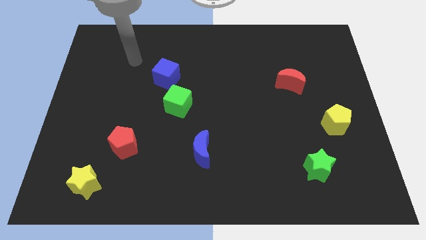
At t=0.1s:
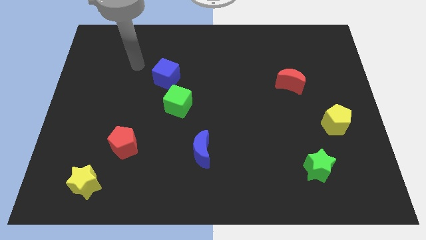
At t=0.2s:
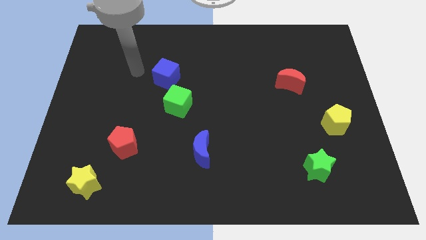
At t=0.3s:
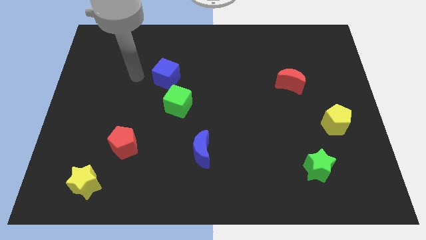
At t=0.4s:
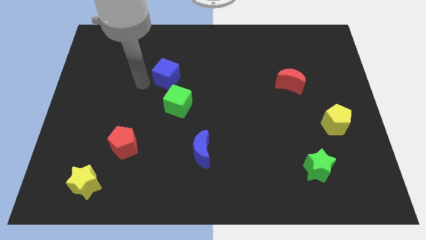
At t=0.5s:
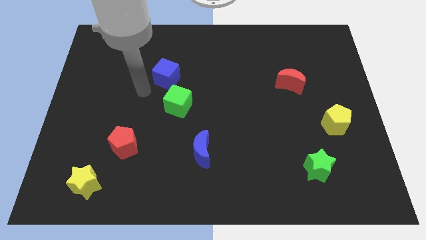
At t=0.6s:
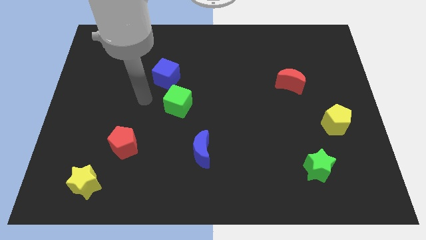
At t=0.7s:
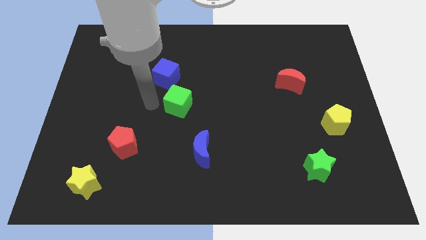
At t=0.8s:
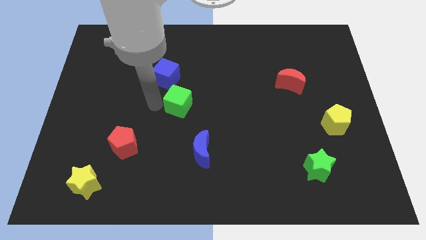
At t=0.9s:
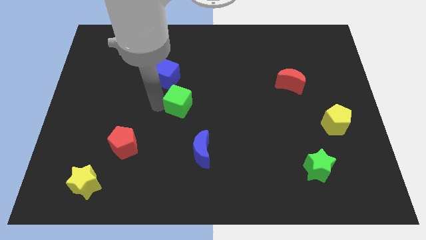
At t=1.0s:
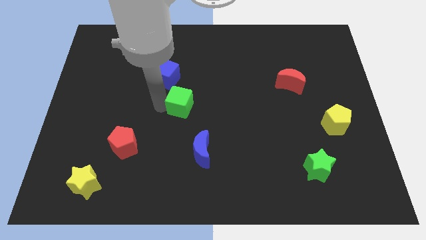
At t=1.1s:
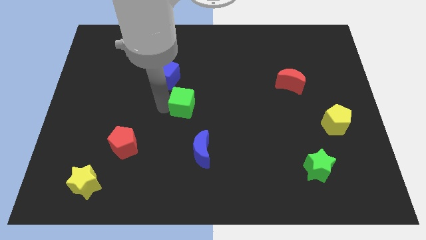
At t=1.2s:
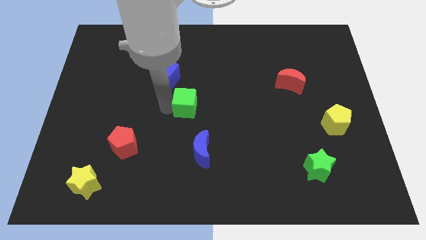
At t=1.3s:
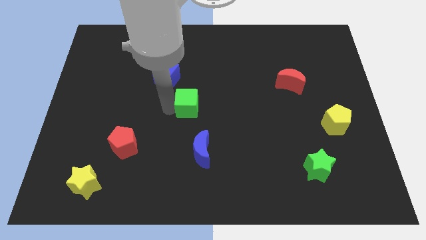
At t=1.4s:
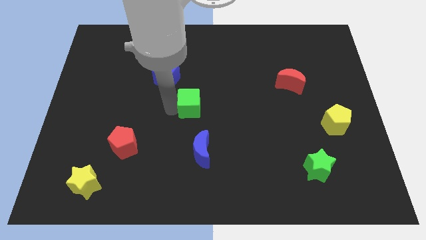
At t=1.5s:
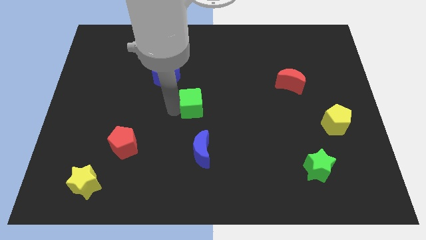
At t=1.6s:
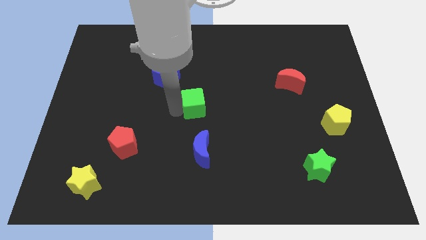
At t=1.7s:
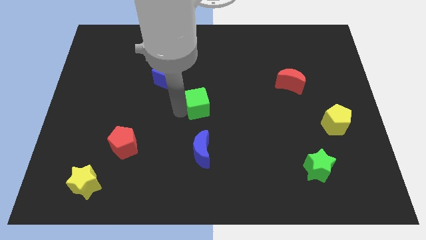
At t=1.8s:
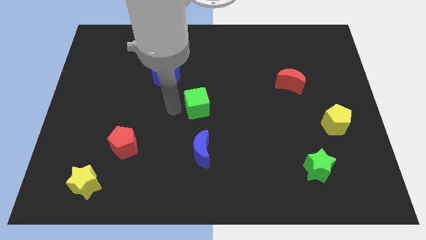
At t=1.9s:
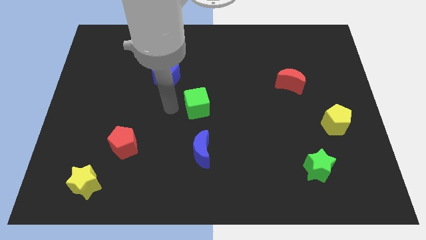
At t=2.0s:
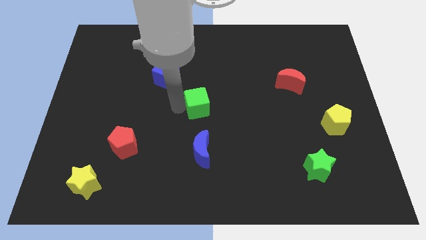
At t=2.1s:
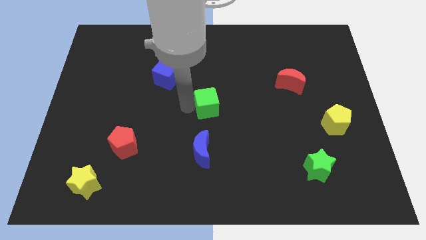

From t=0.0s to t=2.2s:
slide the green cube slightly right

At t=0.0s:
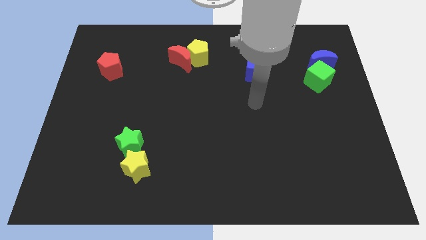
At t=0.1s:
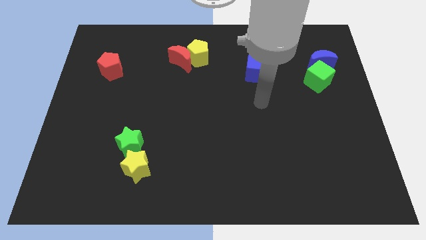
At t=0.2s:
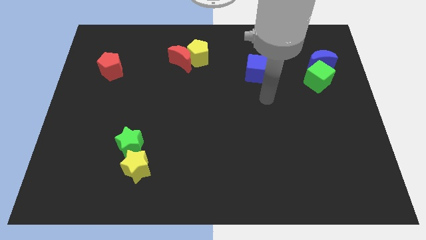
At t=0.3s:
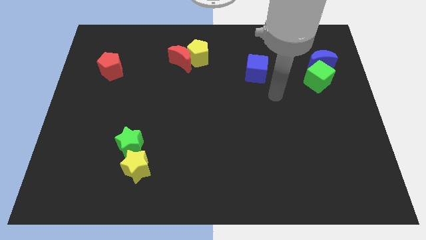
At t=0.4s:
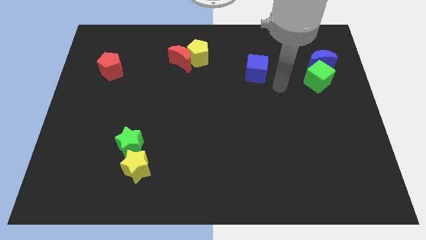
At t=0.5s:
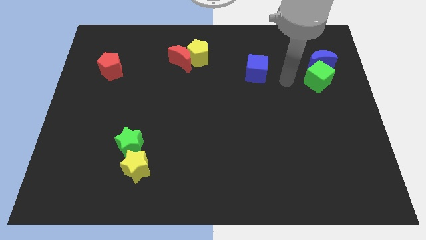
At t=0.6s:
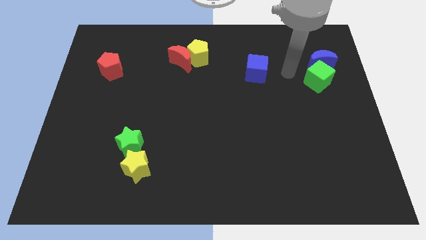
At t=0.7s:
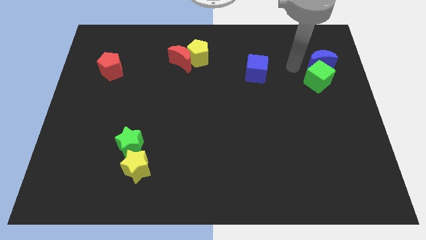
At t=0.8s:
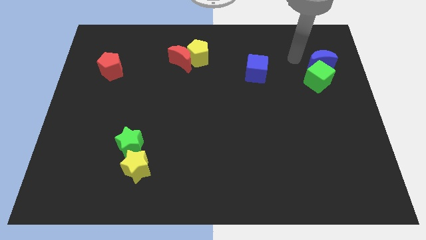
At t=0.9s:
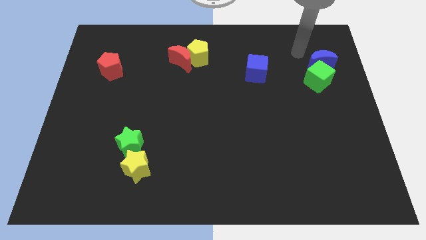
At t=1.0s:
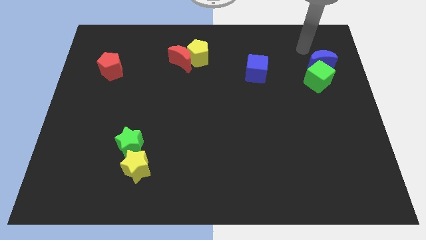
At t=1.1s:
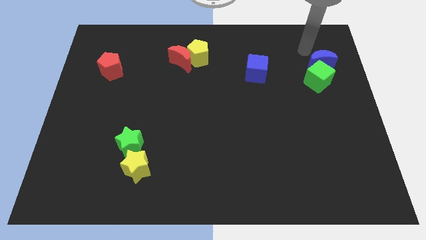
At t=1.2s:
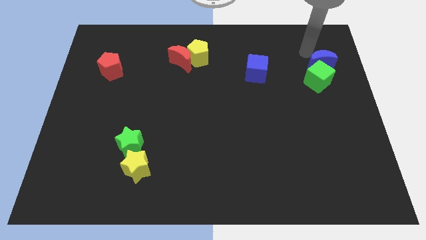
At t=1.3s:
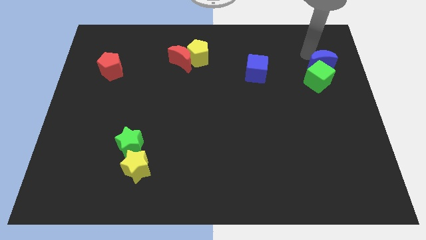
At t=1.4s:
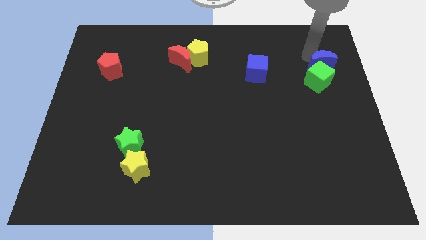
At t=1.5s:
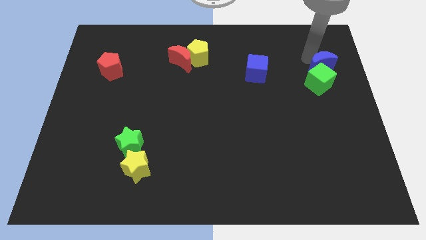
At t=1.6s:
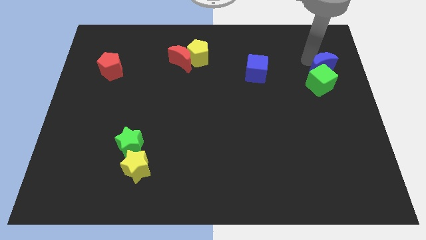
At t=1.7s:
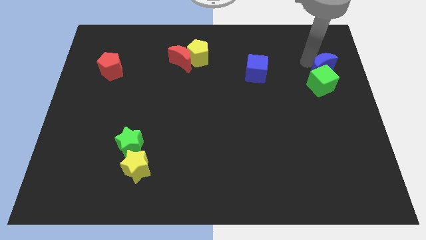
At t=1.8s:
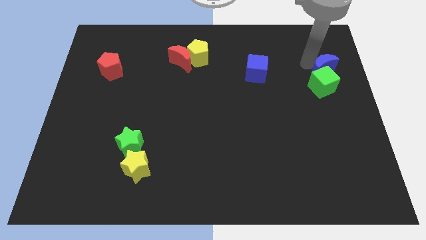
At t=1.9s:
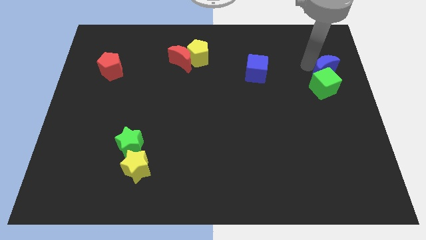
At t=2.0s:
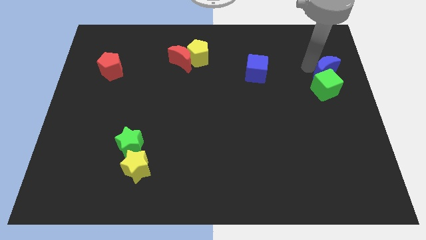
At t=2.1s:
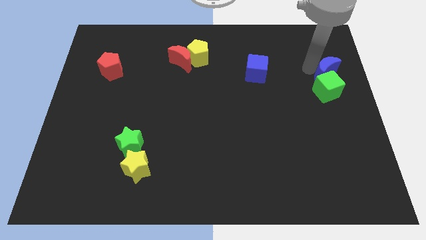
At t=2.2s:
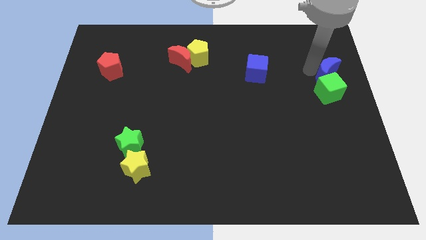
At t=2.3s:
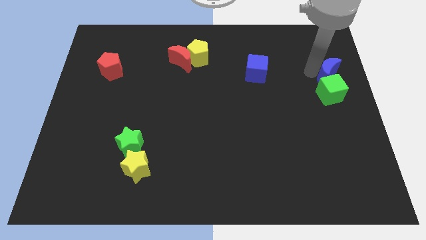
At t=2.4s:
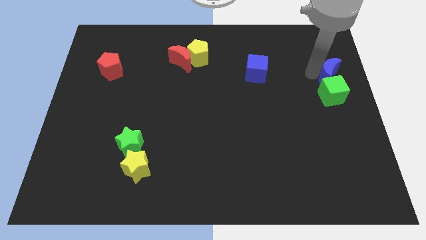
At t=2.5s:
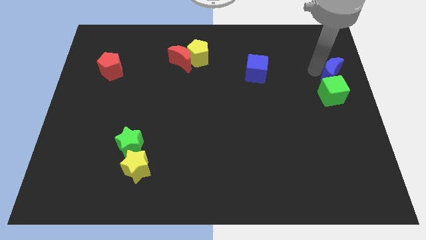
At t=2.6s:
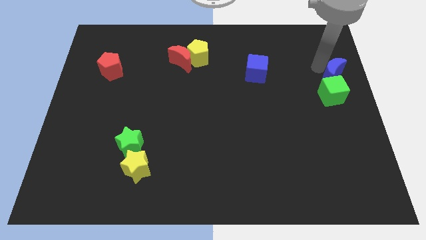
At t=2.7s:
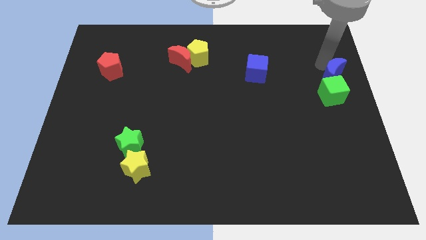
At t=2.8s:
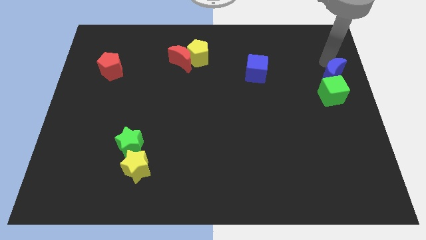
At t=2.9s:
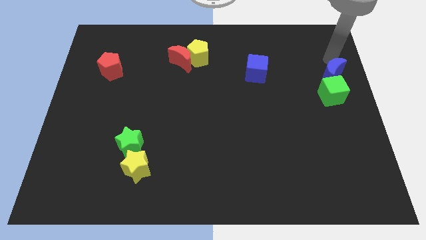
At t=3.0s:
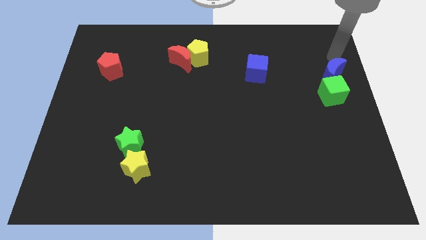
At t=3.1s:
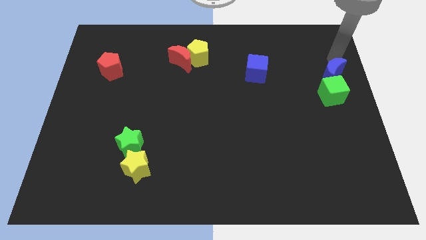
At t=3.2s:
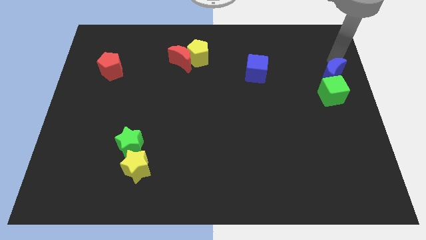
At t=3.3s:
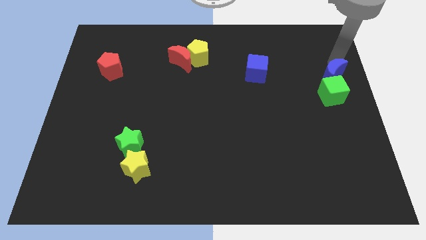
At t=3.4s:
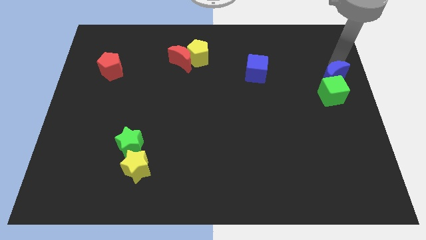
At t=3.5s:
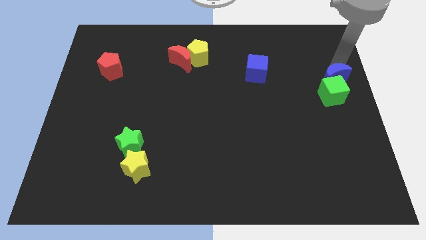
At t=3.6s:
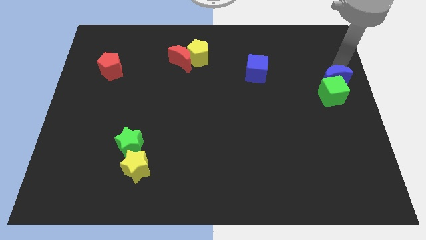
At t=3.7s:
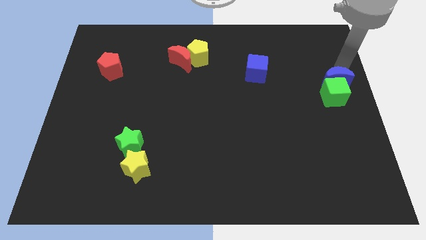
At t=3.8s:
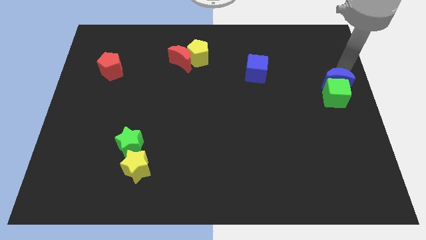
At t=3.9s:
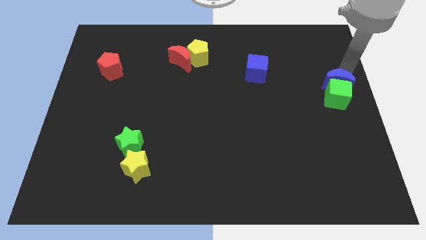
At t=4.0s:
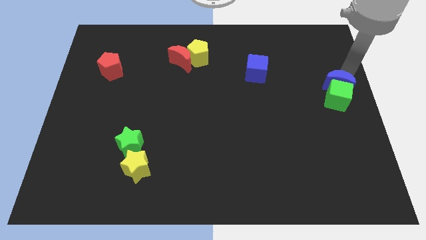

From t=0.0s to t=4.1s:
push the blue moon a little bit downwards

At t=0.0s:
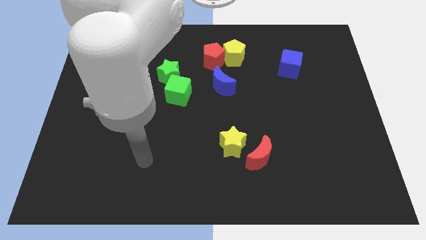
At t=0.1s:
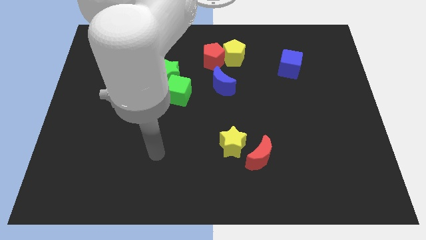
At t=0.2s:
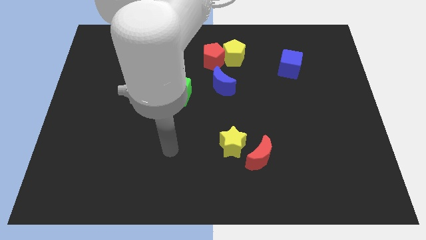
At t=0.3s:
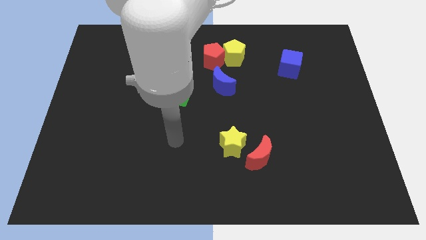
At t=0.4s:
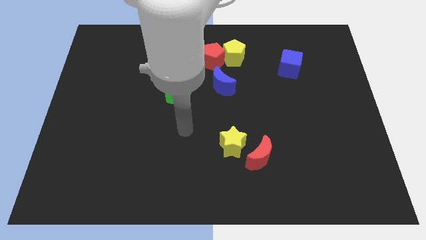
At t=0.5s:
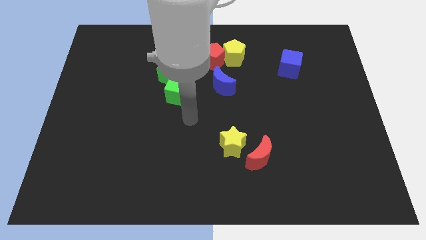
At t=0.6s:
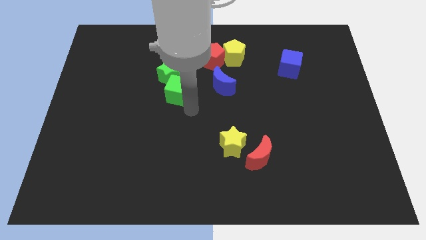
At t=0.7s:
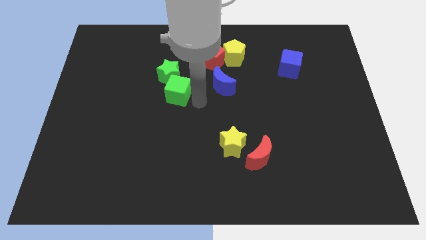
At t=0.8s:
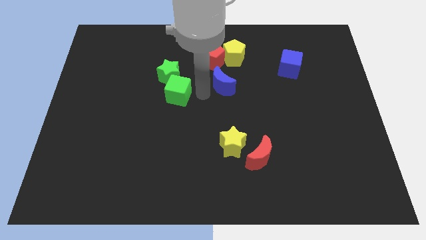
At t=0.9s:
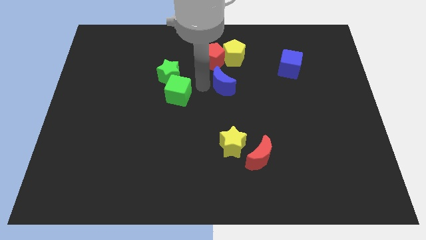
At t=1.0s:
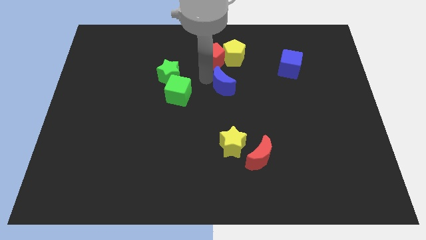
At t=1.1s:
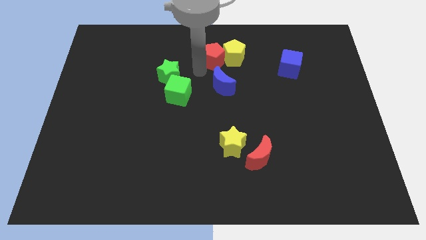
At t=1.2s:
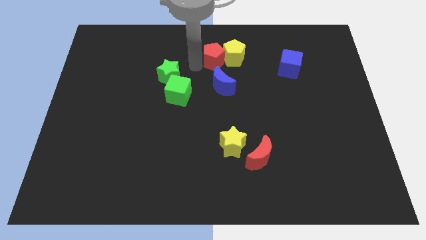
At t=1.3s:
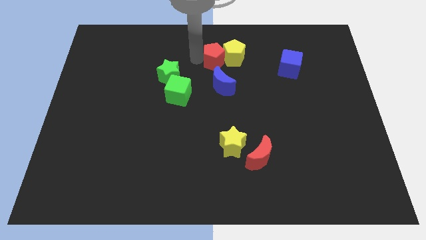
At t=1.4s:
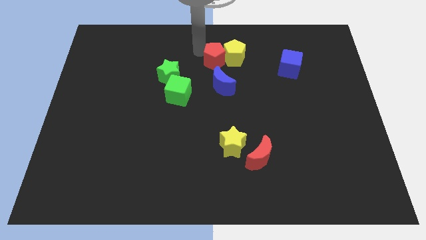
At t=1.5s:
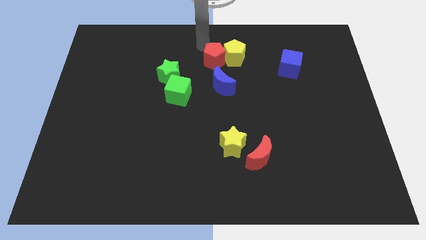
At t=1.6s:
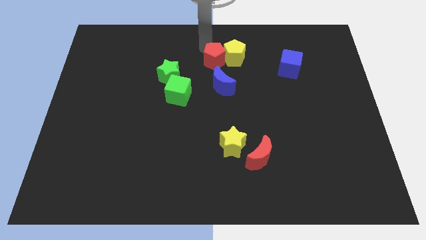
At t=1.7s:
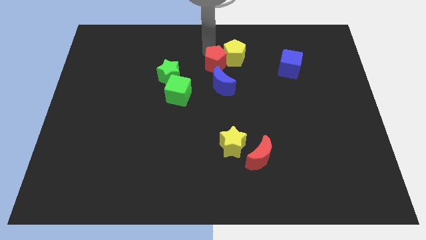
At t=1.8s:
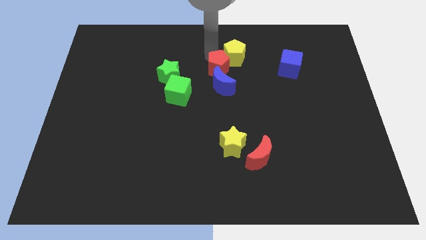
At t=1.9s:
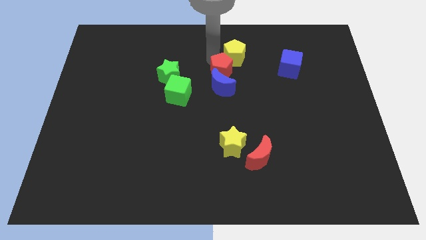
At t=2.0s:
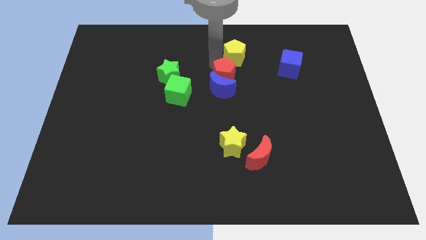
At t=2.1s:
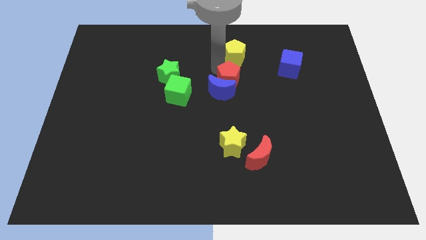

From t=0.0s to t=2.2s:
push the red pentagon downwards and to the right a little bit
